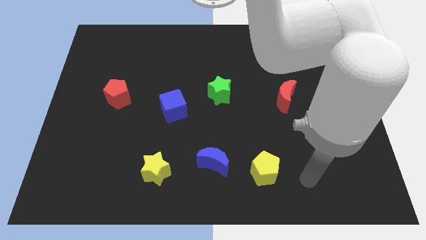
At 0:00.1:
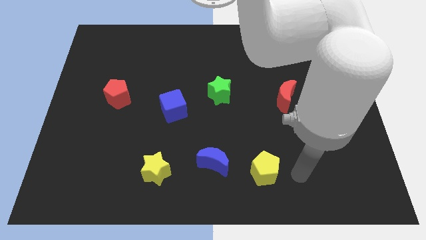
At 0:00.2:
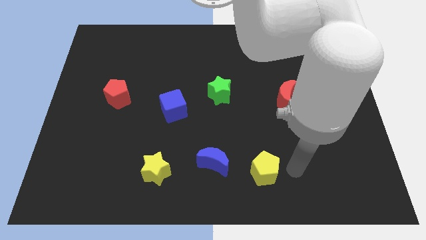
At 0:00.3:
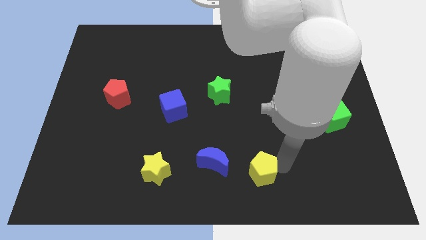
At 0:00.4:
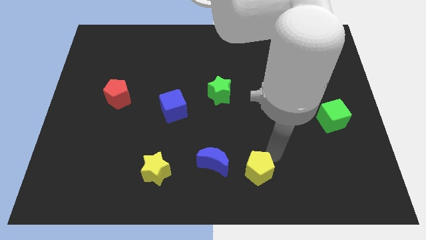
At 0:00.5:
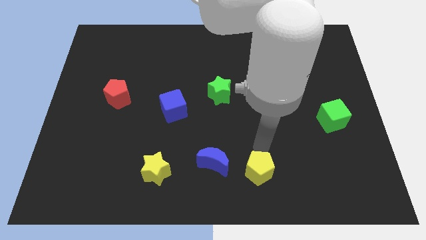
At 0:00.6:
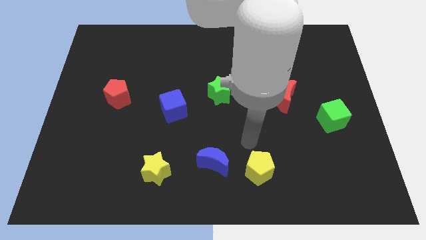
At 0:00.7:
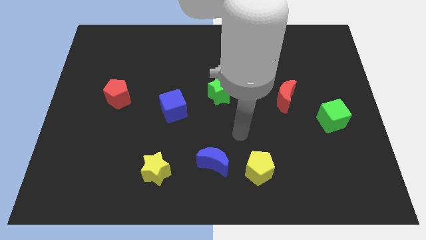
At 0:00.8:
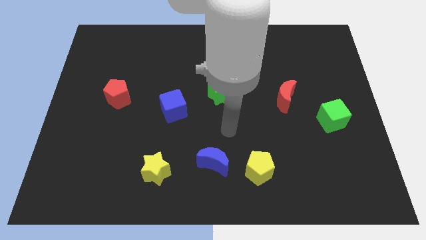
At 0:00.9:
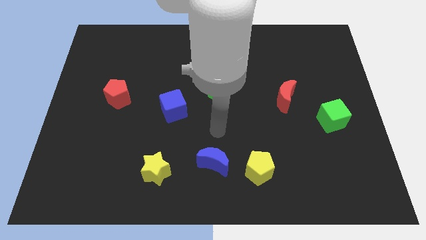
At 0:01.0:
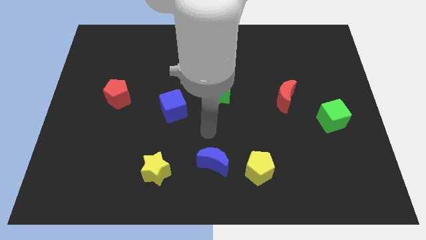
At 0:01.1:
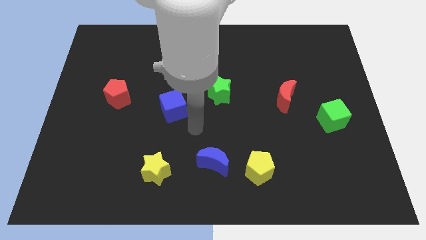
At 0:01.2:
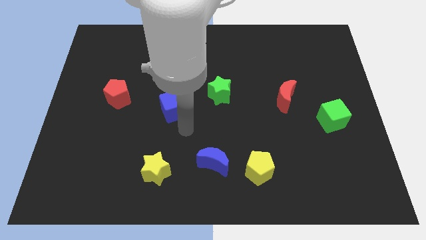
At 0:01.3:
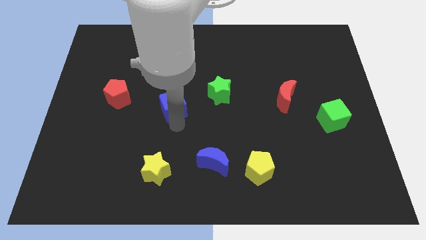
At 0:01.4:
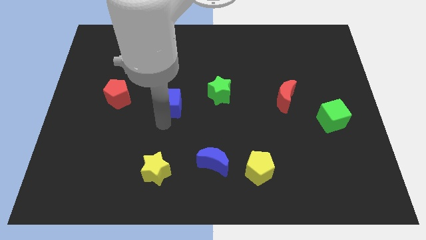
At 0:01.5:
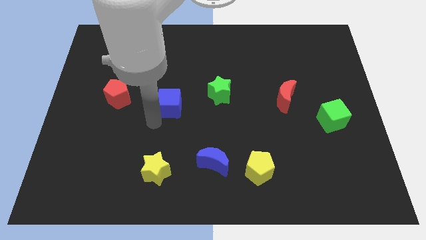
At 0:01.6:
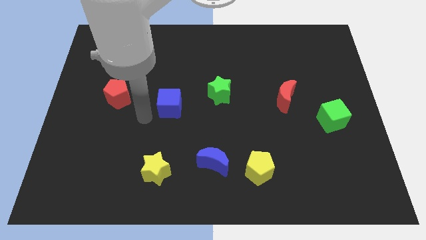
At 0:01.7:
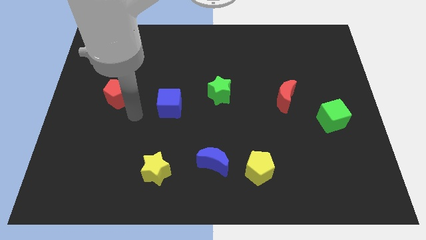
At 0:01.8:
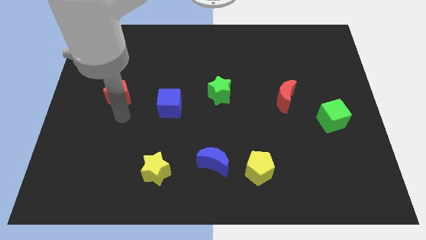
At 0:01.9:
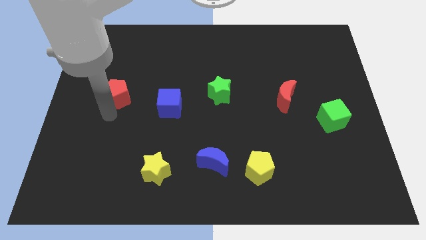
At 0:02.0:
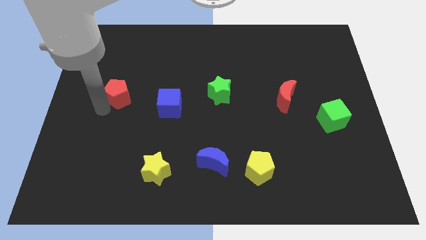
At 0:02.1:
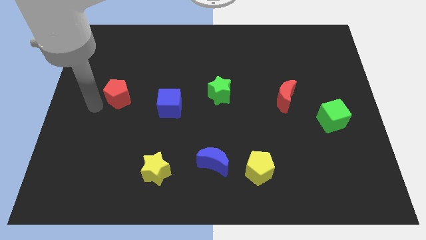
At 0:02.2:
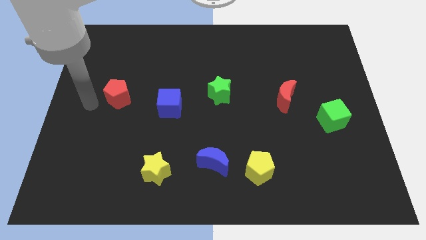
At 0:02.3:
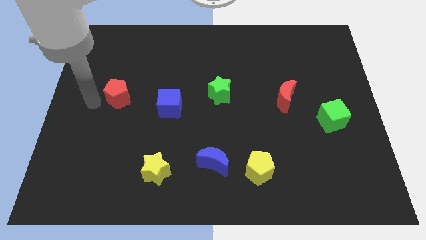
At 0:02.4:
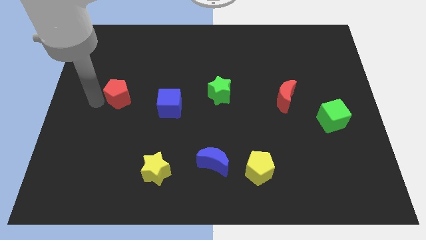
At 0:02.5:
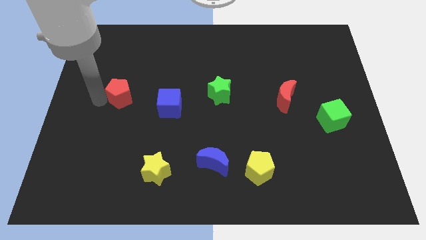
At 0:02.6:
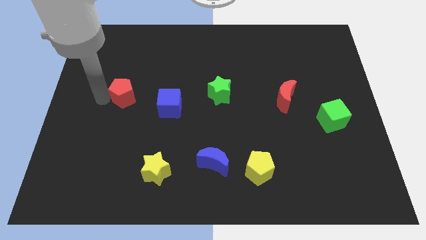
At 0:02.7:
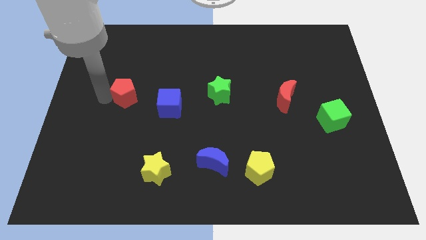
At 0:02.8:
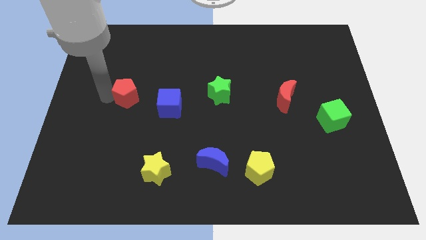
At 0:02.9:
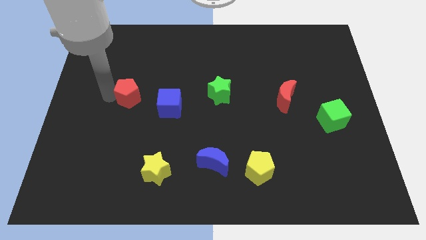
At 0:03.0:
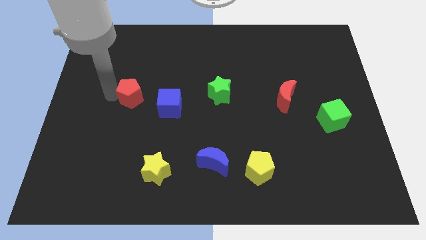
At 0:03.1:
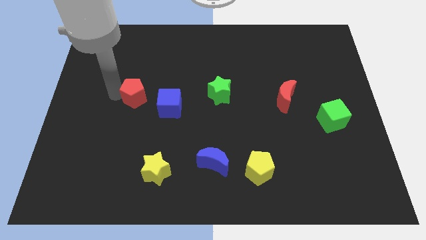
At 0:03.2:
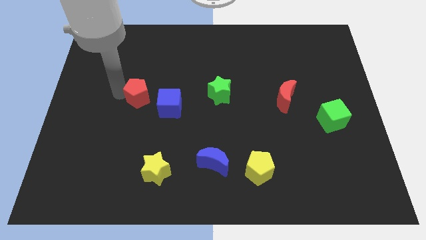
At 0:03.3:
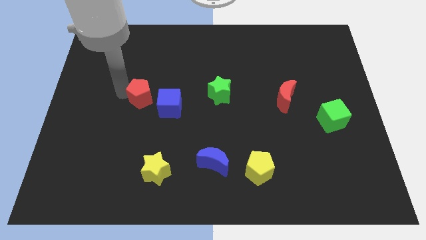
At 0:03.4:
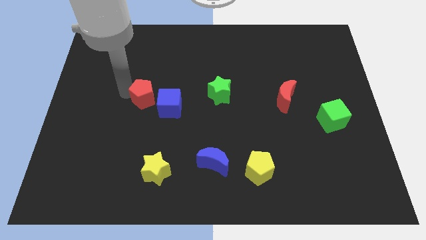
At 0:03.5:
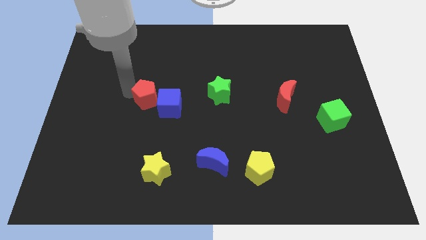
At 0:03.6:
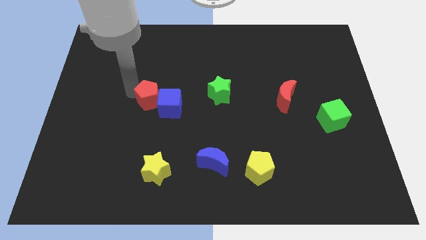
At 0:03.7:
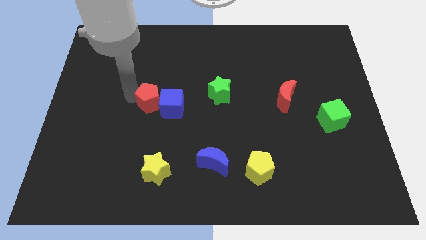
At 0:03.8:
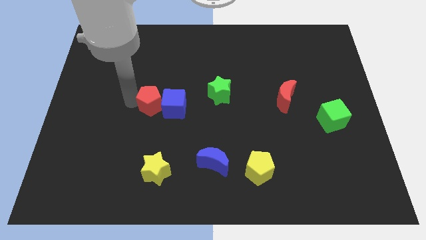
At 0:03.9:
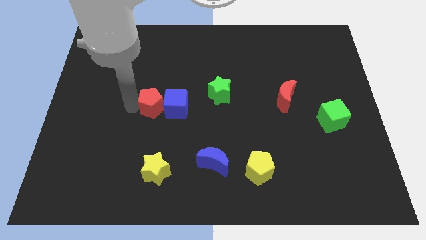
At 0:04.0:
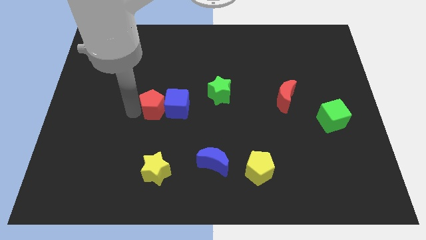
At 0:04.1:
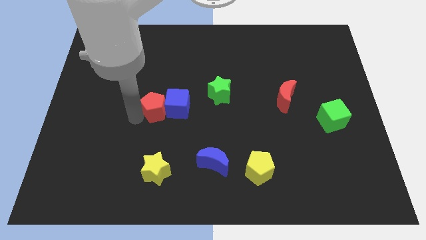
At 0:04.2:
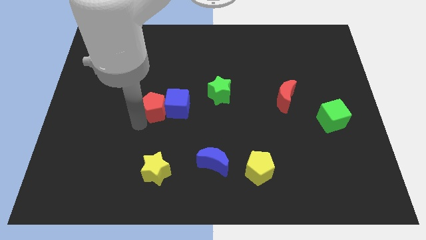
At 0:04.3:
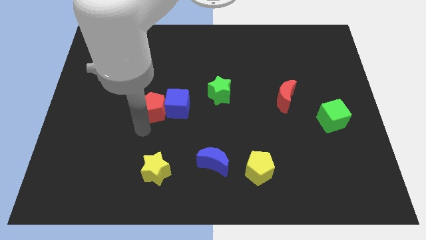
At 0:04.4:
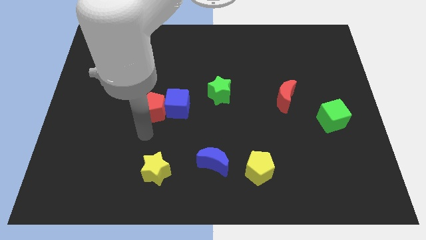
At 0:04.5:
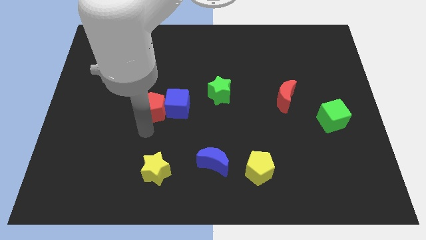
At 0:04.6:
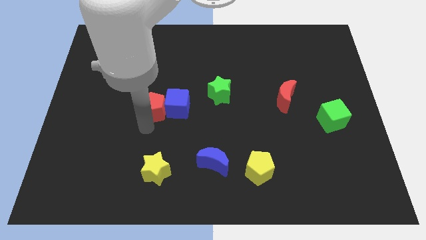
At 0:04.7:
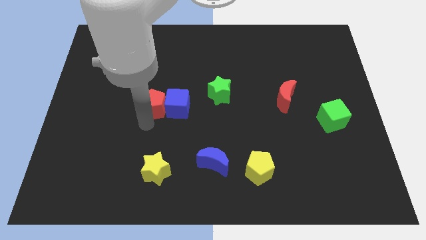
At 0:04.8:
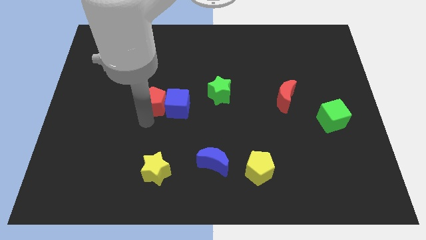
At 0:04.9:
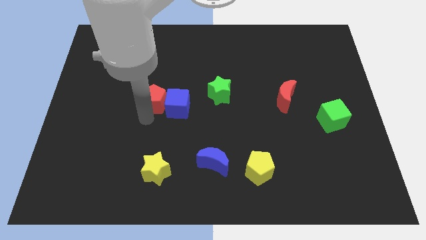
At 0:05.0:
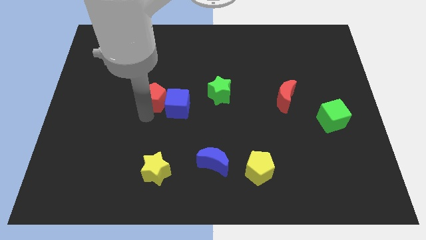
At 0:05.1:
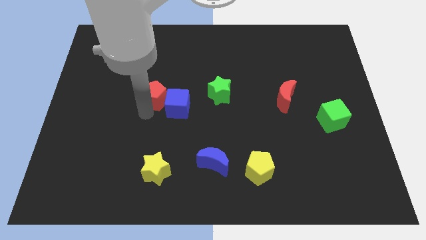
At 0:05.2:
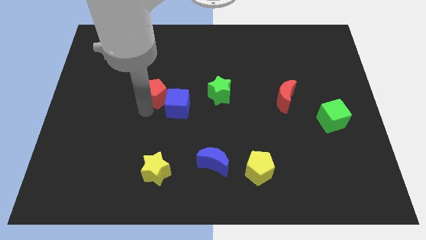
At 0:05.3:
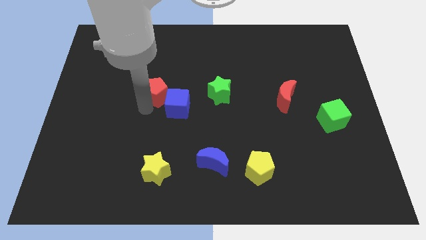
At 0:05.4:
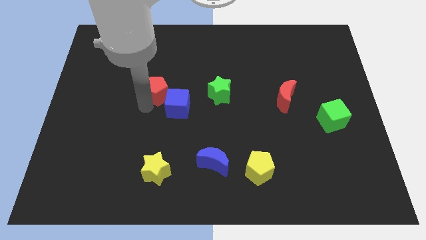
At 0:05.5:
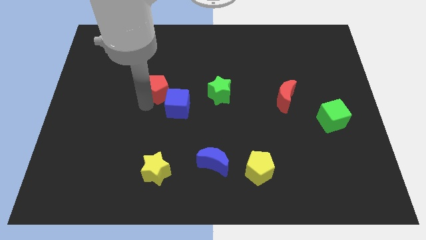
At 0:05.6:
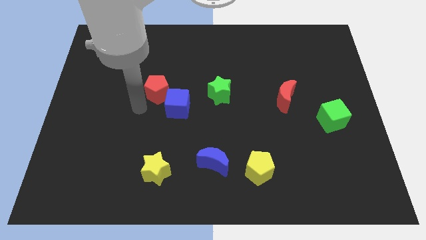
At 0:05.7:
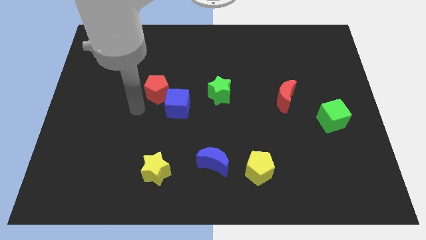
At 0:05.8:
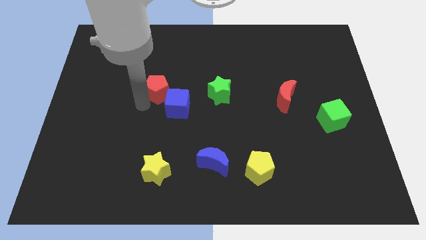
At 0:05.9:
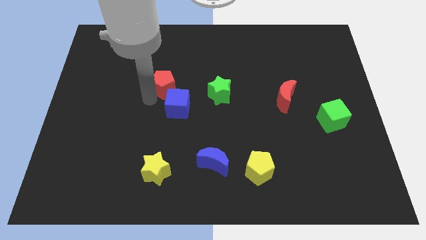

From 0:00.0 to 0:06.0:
move the red pentagon to the top of the blue cube

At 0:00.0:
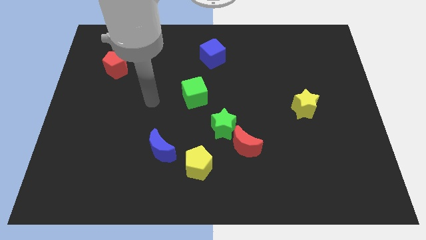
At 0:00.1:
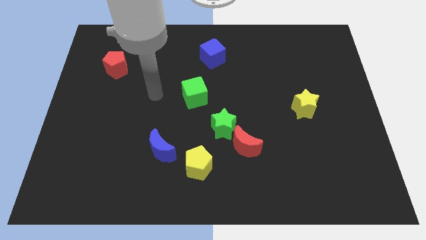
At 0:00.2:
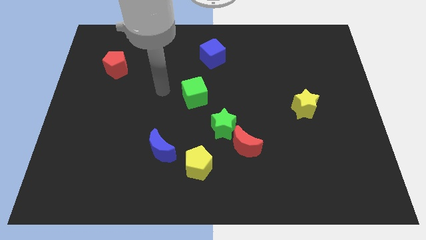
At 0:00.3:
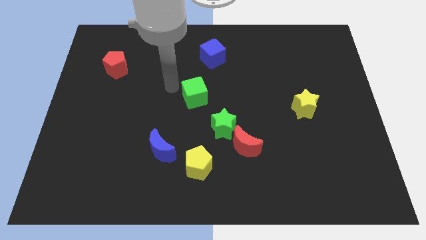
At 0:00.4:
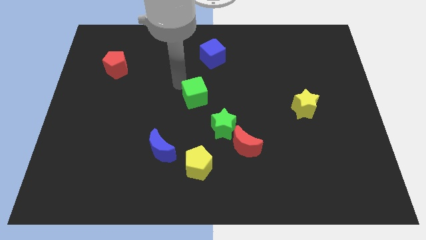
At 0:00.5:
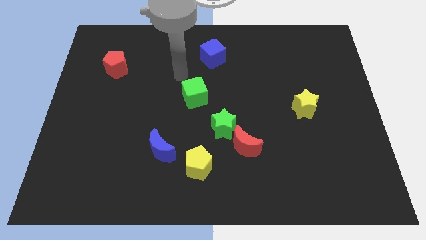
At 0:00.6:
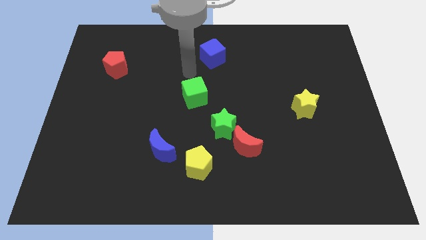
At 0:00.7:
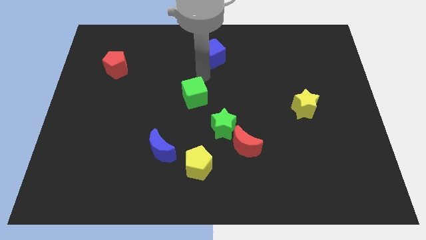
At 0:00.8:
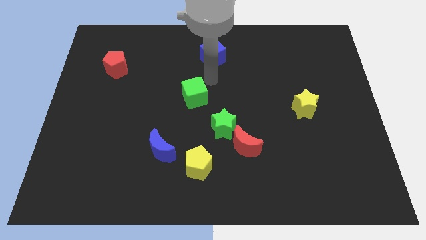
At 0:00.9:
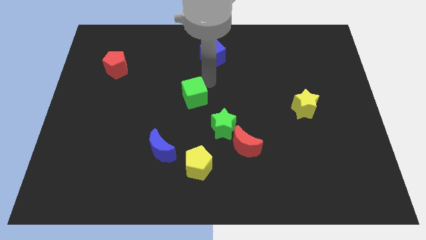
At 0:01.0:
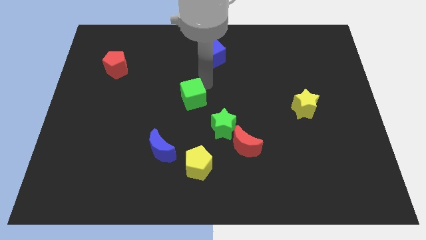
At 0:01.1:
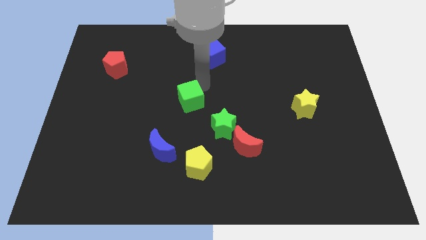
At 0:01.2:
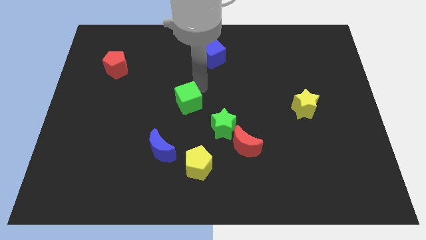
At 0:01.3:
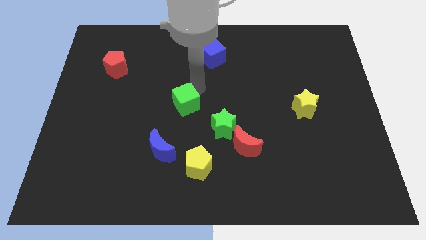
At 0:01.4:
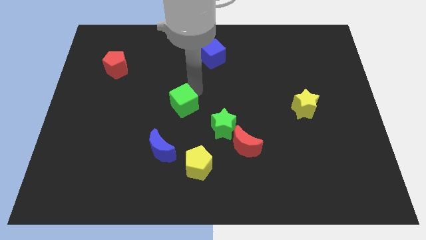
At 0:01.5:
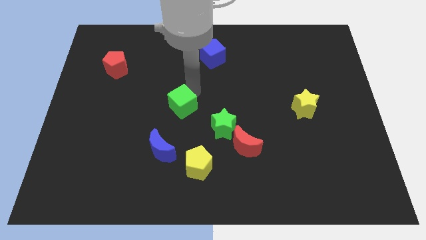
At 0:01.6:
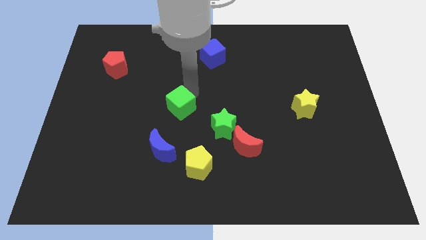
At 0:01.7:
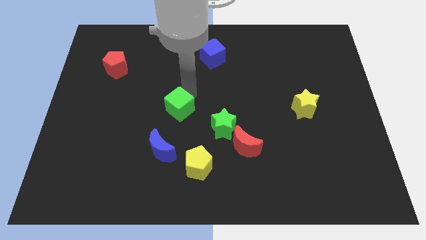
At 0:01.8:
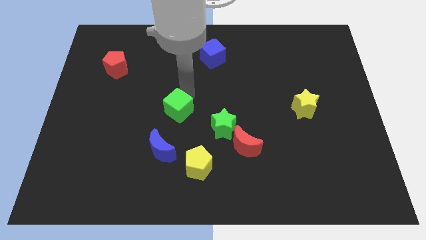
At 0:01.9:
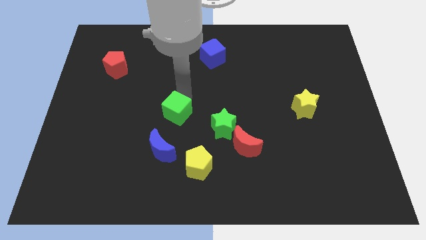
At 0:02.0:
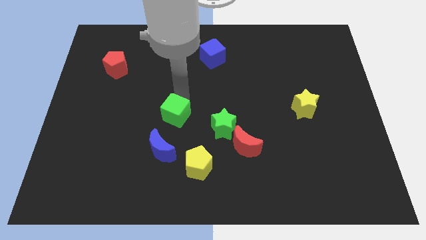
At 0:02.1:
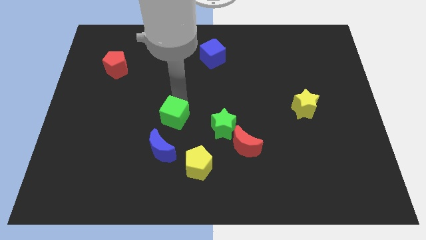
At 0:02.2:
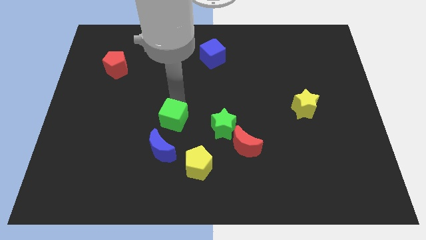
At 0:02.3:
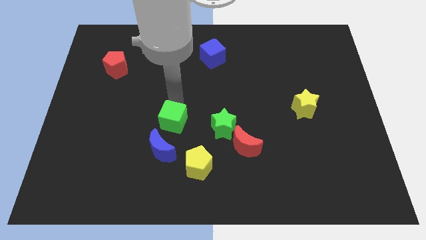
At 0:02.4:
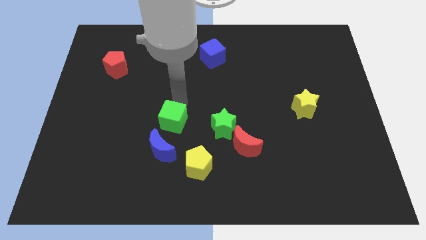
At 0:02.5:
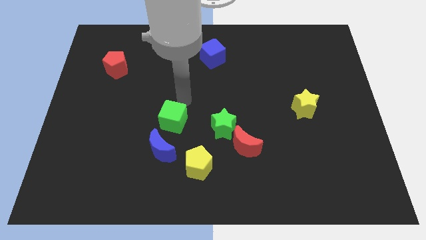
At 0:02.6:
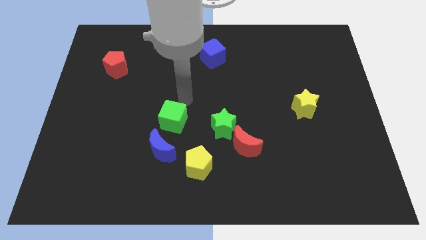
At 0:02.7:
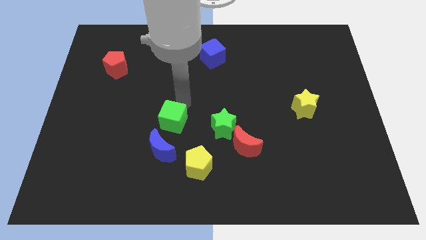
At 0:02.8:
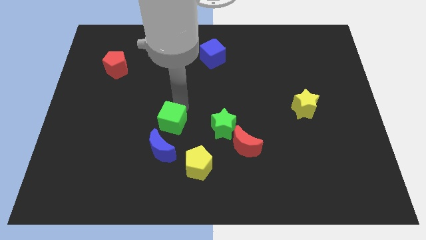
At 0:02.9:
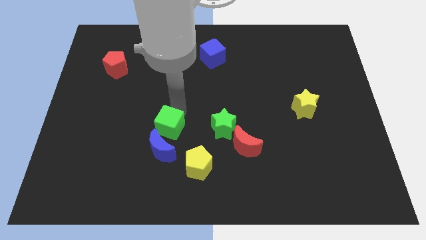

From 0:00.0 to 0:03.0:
put the green cube diagonally up and to the left of the yellow pentagon
